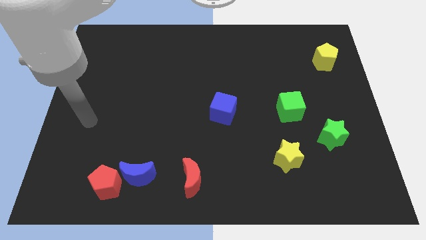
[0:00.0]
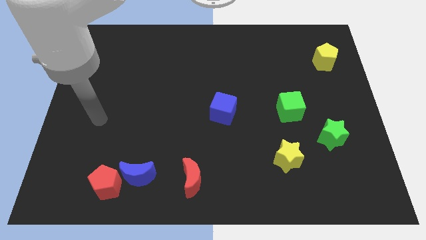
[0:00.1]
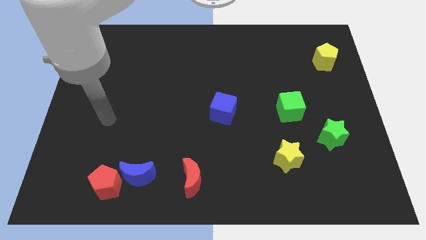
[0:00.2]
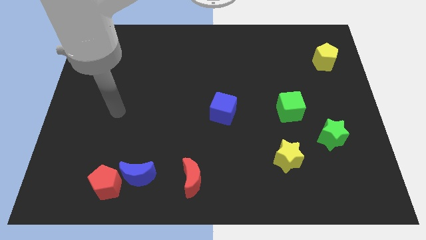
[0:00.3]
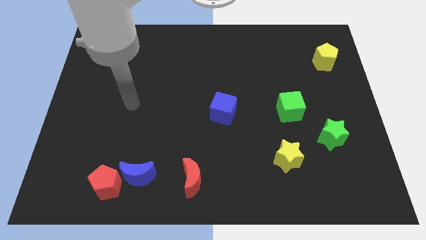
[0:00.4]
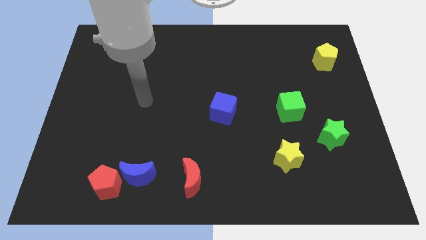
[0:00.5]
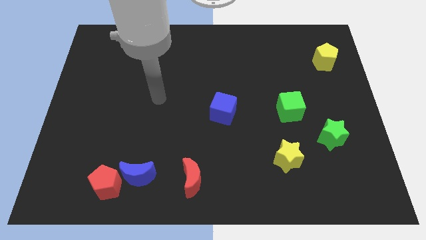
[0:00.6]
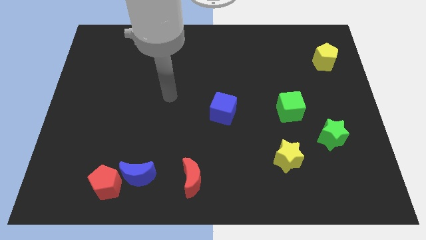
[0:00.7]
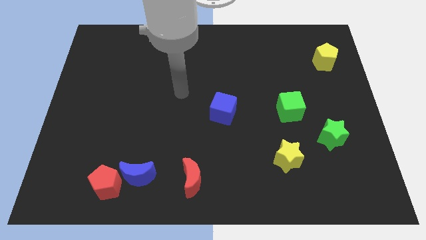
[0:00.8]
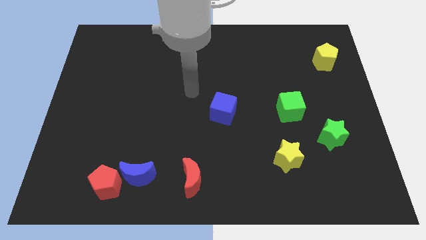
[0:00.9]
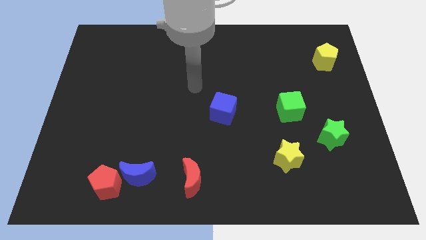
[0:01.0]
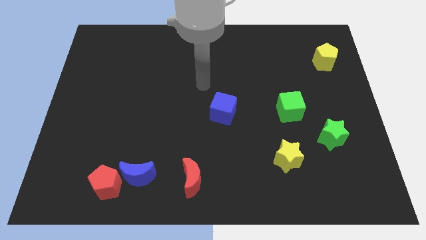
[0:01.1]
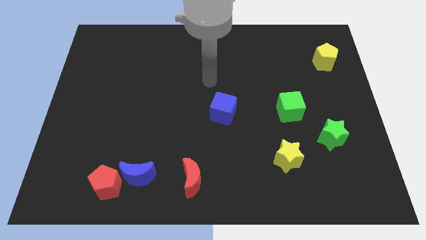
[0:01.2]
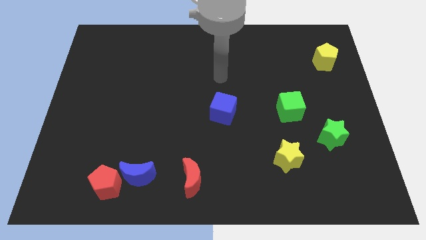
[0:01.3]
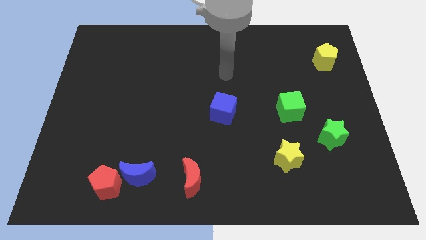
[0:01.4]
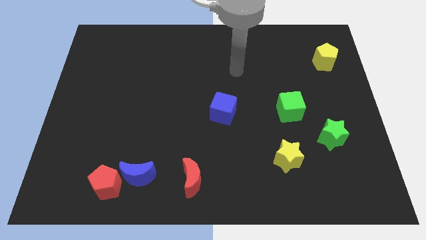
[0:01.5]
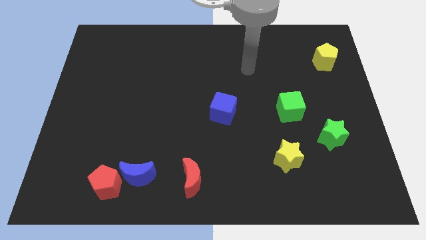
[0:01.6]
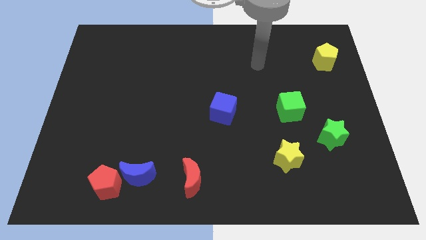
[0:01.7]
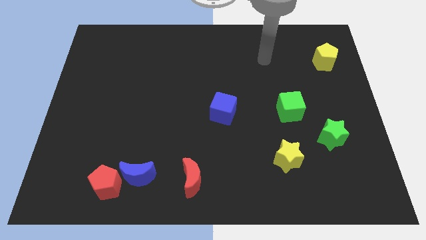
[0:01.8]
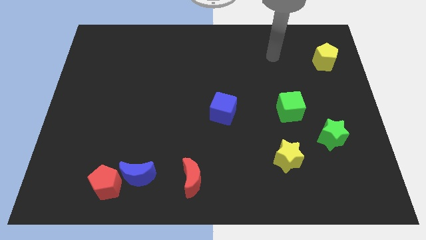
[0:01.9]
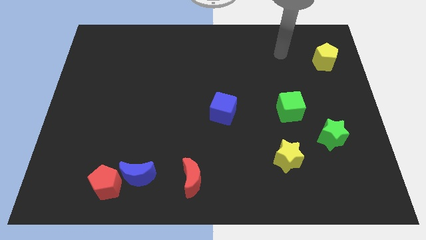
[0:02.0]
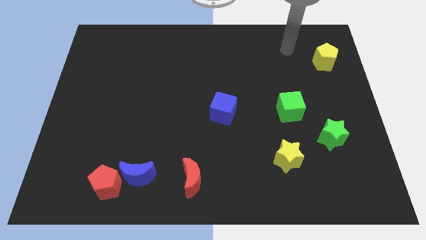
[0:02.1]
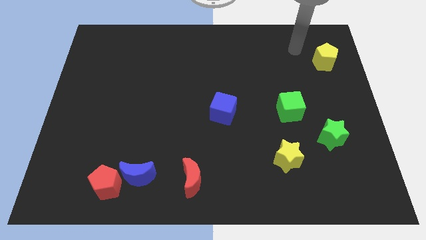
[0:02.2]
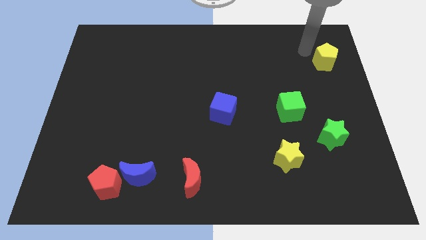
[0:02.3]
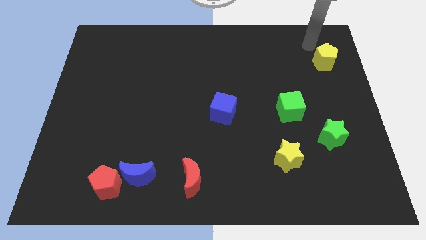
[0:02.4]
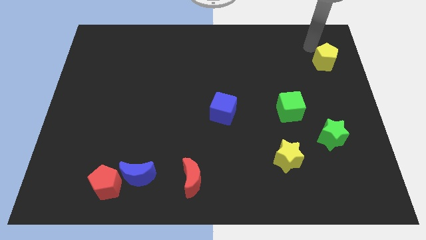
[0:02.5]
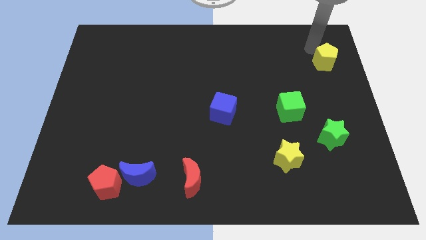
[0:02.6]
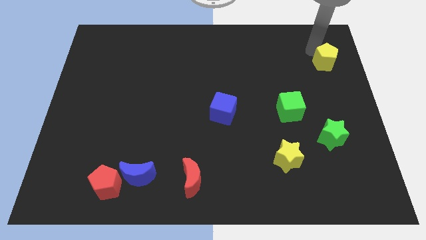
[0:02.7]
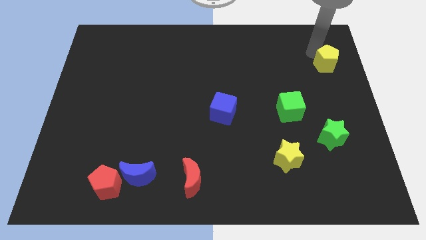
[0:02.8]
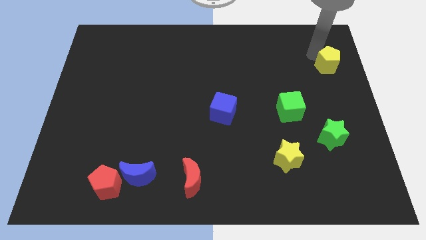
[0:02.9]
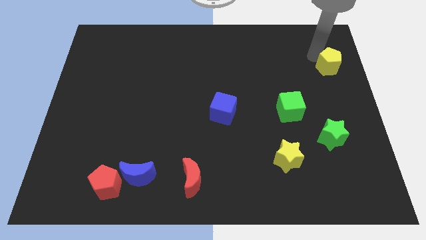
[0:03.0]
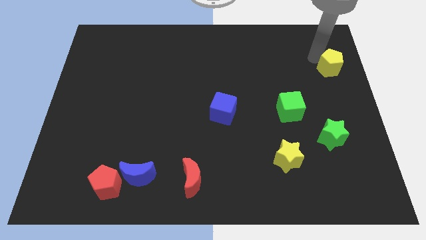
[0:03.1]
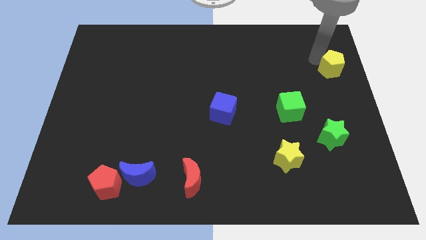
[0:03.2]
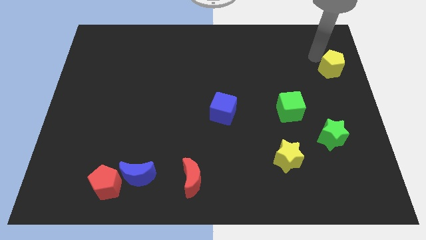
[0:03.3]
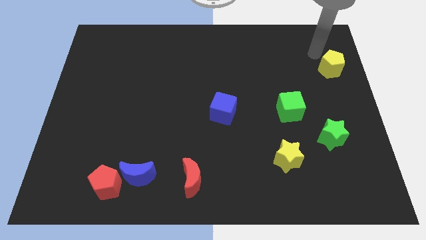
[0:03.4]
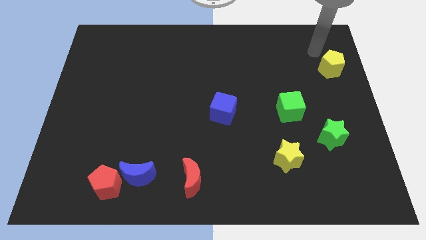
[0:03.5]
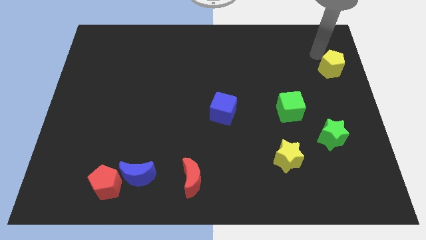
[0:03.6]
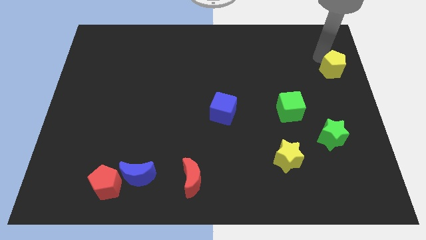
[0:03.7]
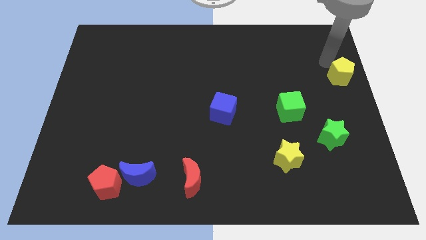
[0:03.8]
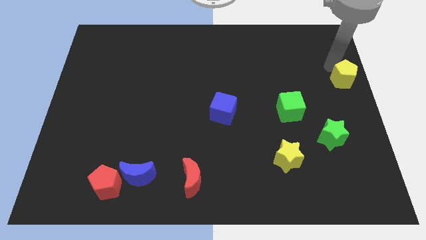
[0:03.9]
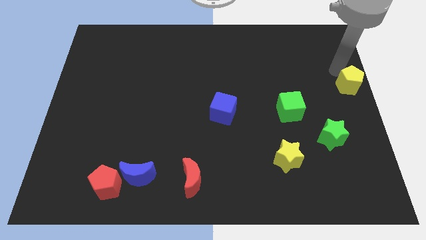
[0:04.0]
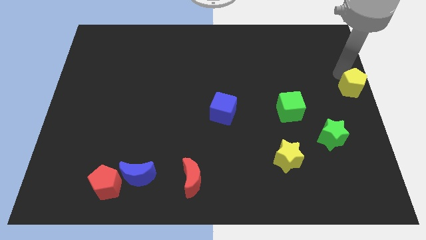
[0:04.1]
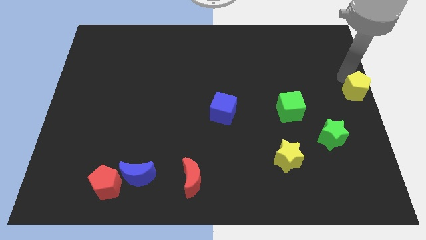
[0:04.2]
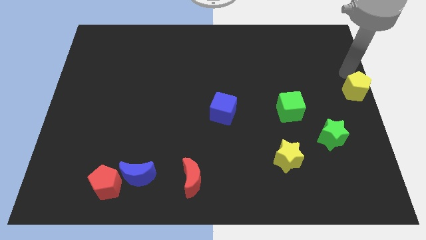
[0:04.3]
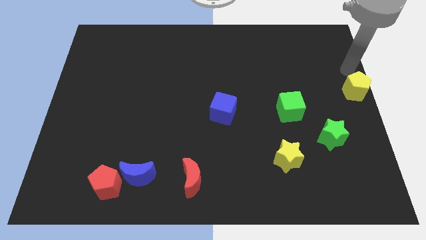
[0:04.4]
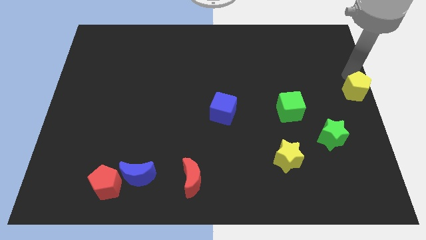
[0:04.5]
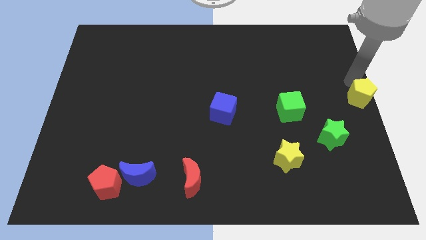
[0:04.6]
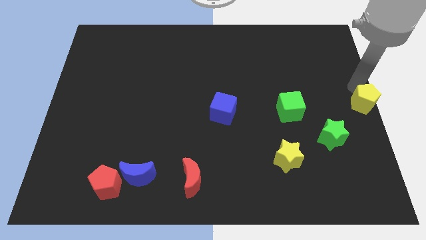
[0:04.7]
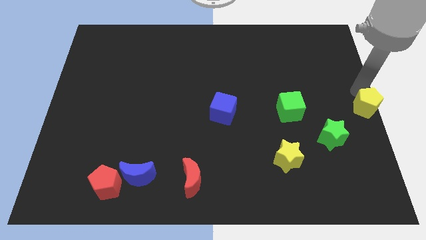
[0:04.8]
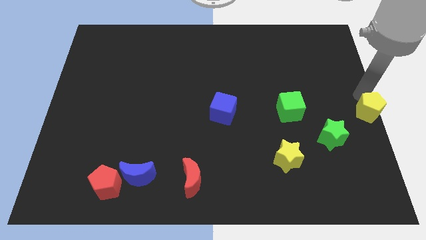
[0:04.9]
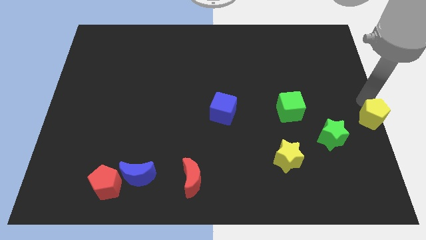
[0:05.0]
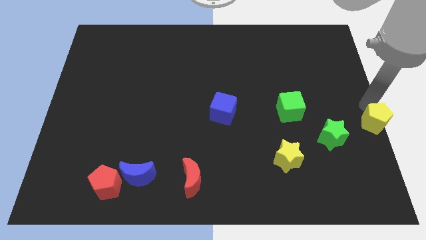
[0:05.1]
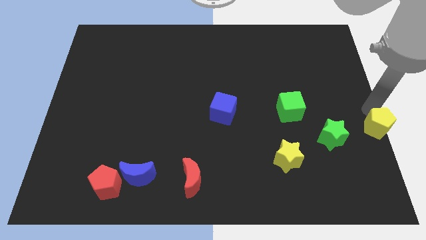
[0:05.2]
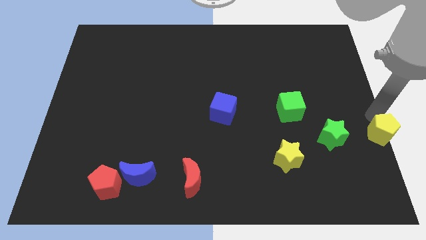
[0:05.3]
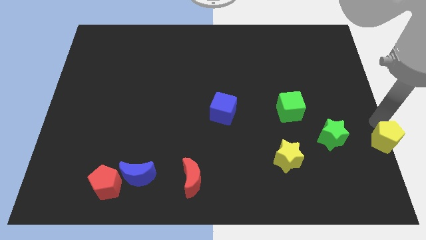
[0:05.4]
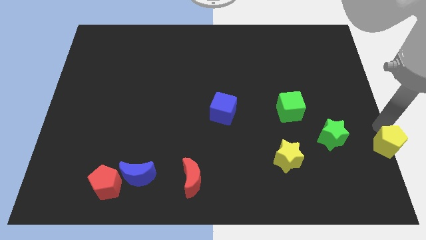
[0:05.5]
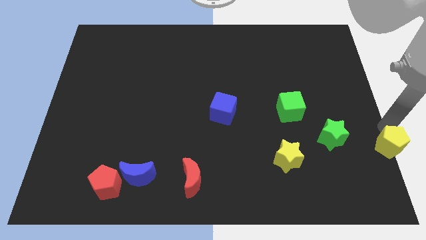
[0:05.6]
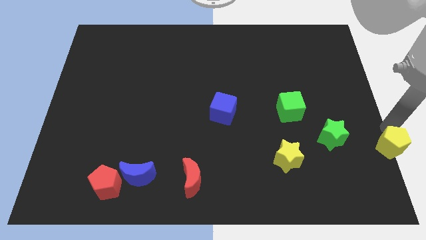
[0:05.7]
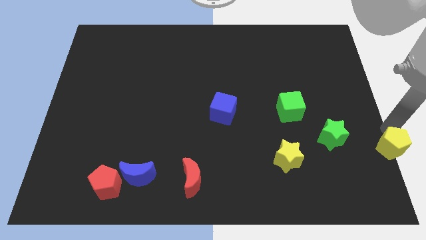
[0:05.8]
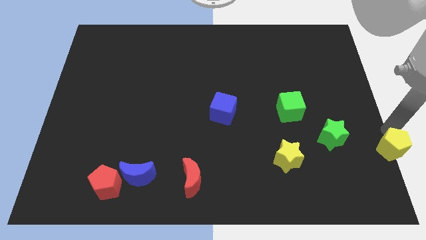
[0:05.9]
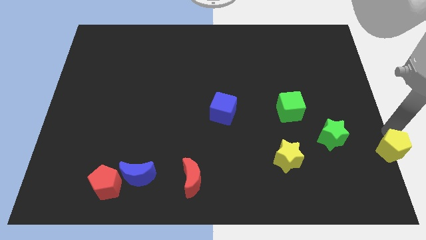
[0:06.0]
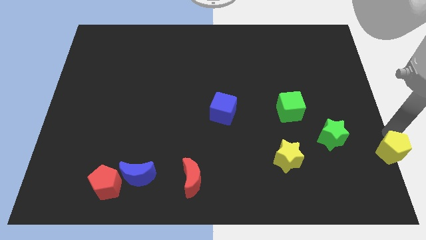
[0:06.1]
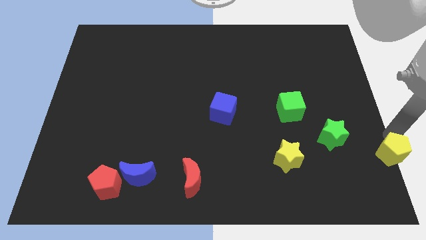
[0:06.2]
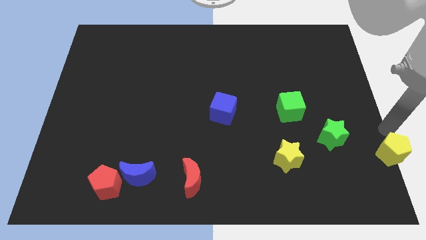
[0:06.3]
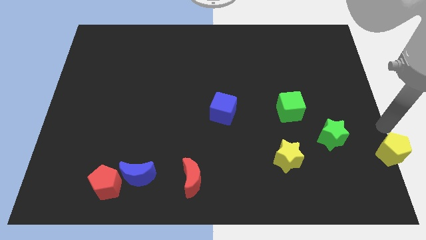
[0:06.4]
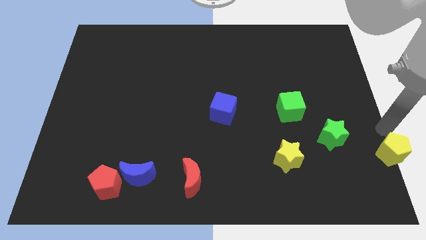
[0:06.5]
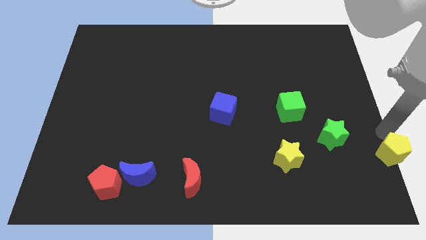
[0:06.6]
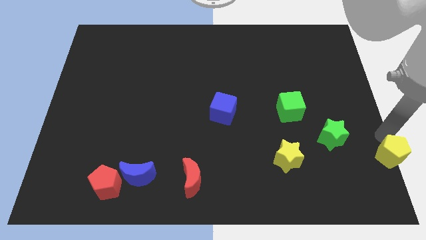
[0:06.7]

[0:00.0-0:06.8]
slide the yellow pentagon to the bottom right corner
